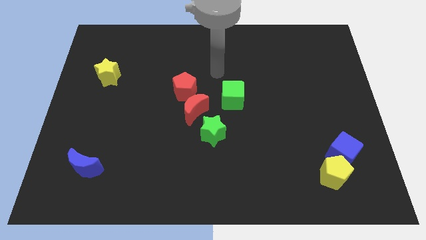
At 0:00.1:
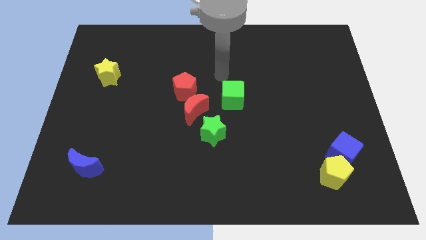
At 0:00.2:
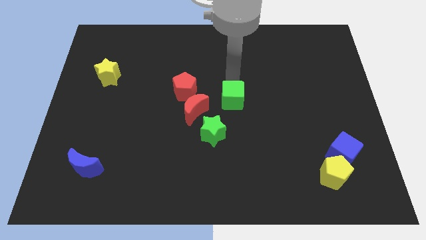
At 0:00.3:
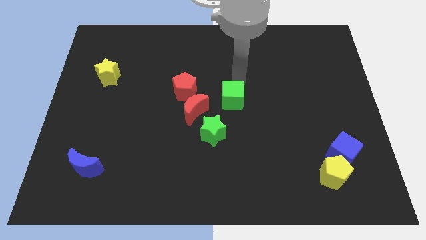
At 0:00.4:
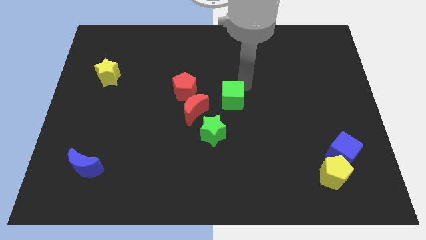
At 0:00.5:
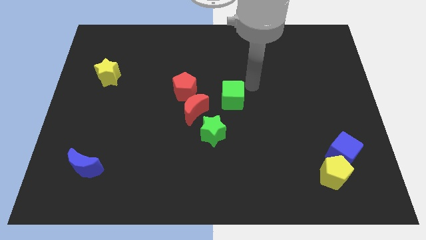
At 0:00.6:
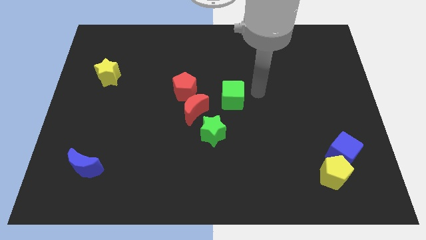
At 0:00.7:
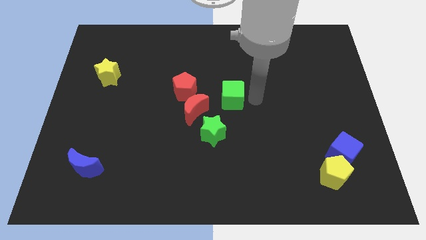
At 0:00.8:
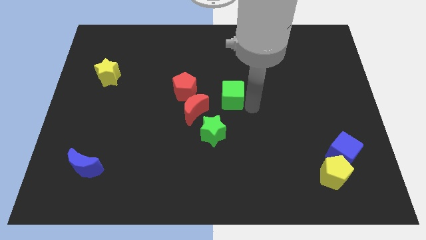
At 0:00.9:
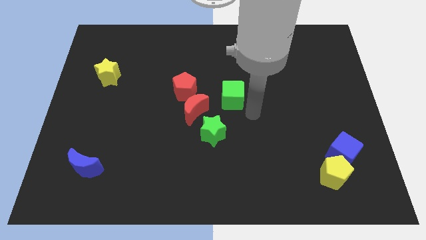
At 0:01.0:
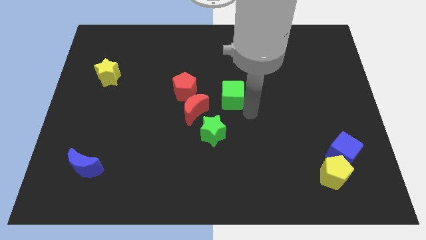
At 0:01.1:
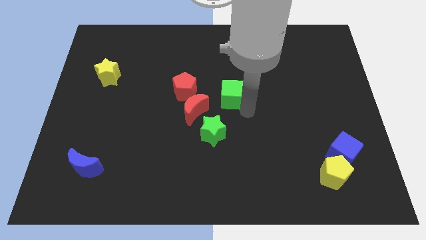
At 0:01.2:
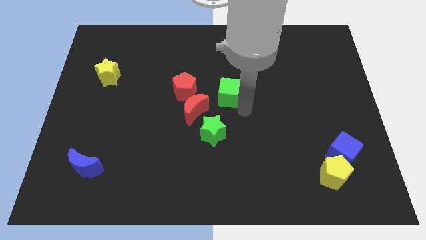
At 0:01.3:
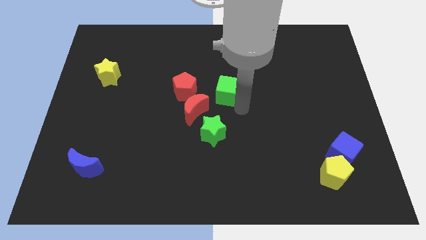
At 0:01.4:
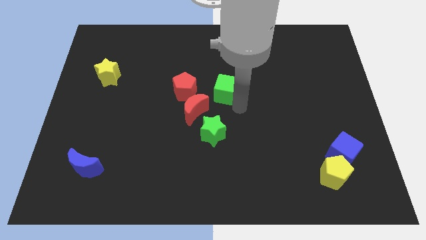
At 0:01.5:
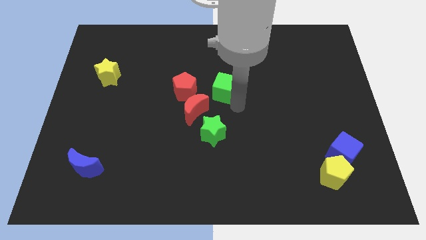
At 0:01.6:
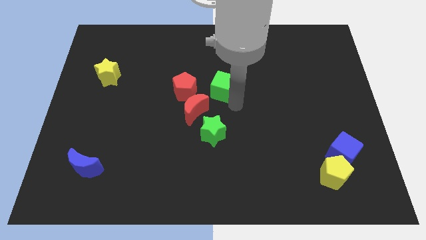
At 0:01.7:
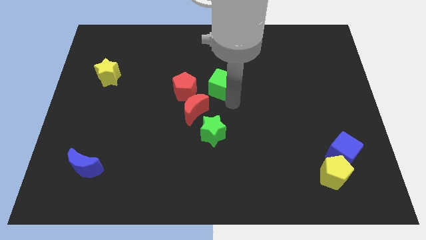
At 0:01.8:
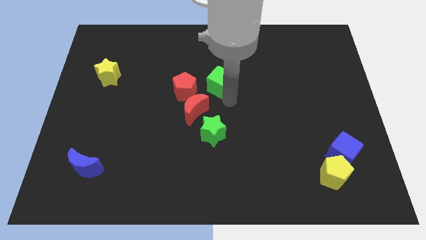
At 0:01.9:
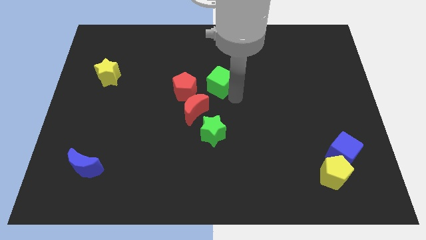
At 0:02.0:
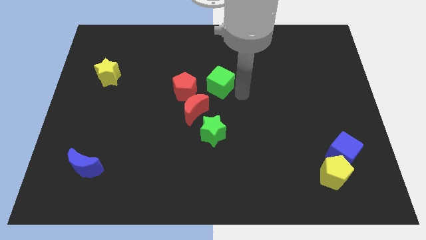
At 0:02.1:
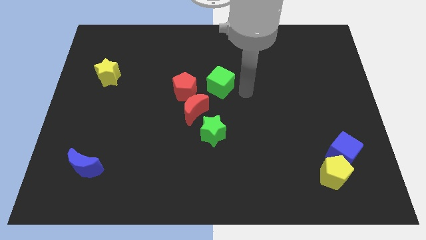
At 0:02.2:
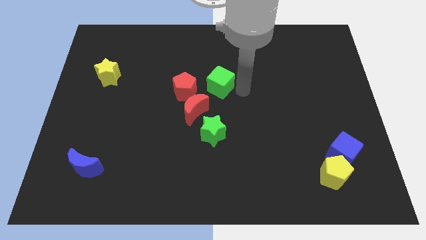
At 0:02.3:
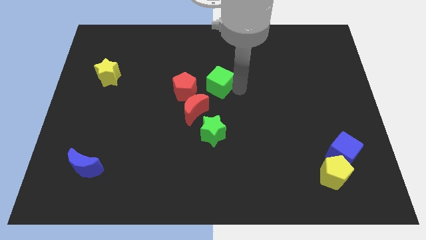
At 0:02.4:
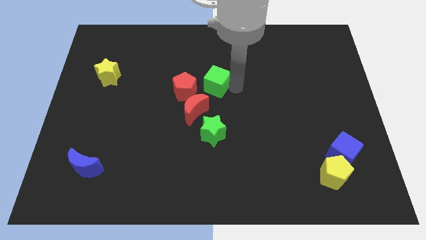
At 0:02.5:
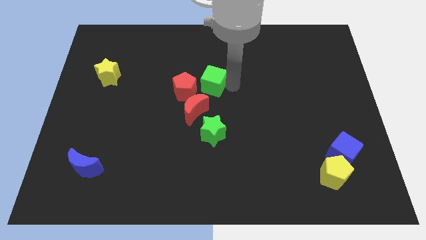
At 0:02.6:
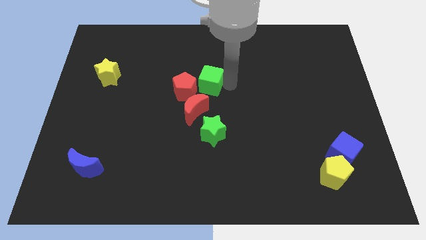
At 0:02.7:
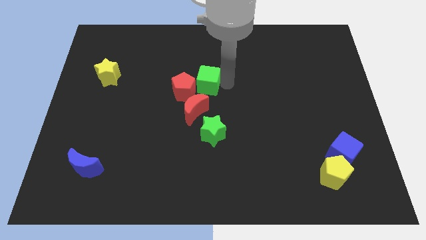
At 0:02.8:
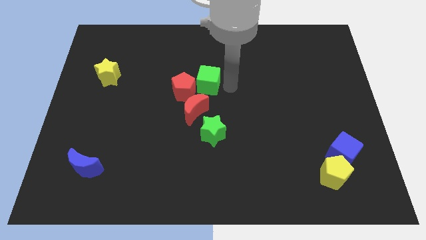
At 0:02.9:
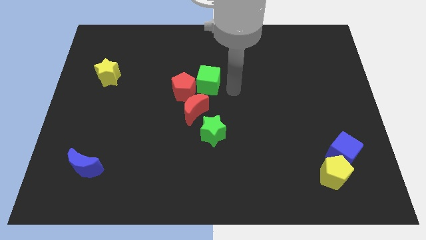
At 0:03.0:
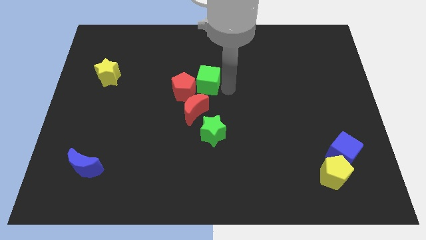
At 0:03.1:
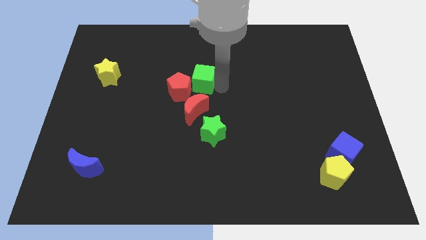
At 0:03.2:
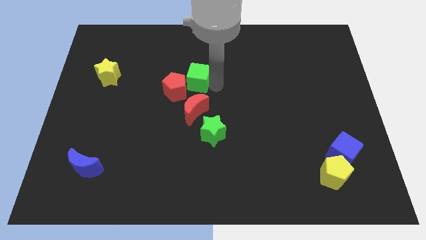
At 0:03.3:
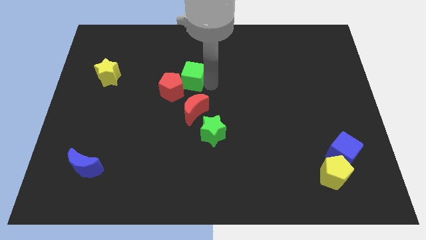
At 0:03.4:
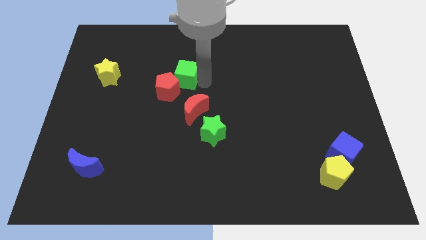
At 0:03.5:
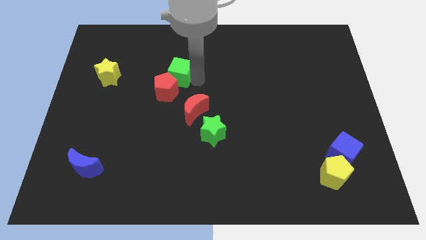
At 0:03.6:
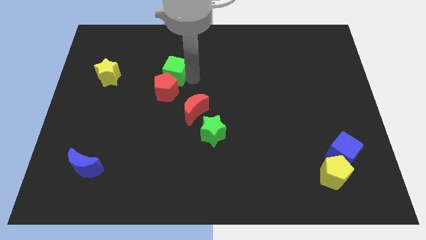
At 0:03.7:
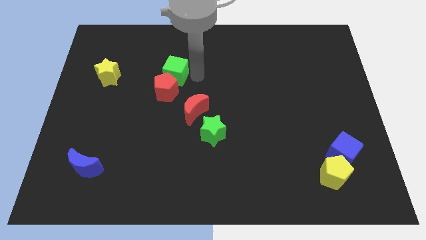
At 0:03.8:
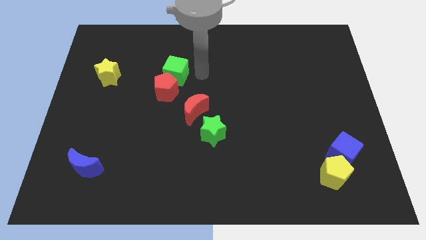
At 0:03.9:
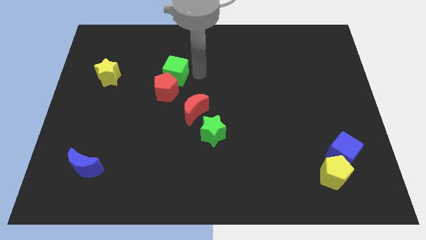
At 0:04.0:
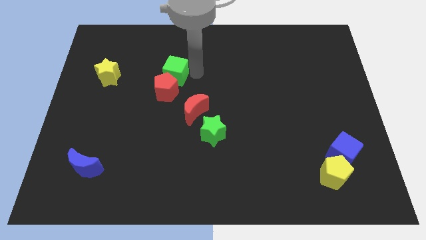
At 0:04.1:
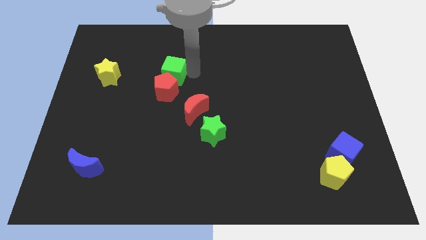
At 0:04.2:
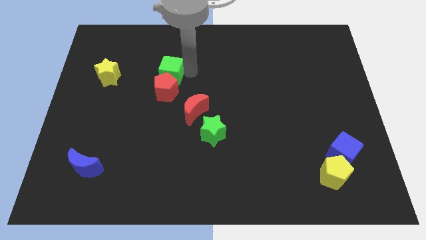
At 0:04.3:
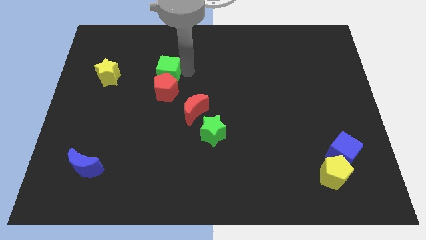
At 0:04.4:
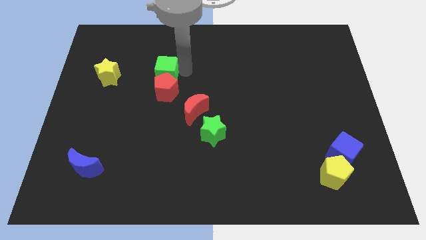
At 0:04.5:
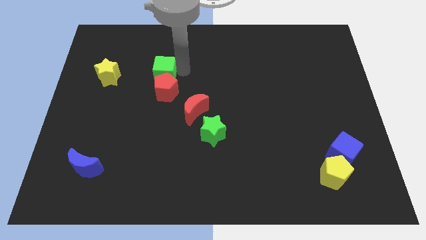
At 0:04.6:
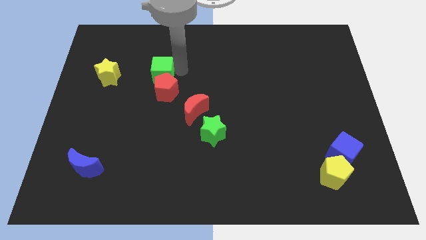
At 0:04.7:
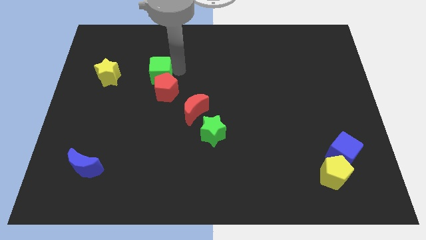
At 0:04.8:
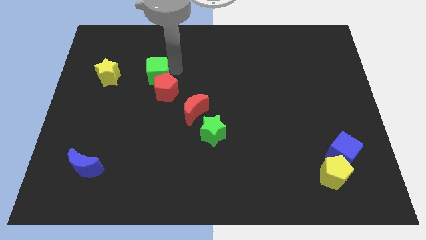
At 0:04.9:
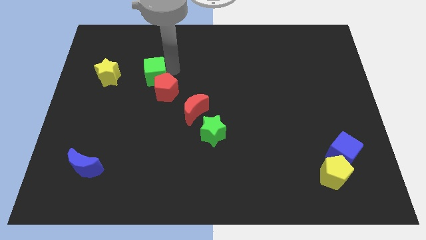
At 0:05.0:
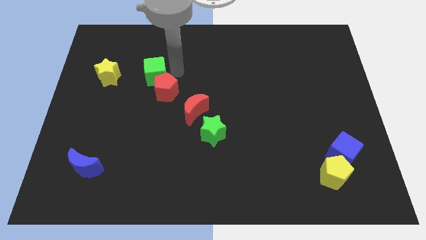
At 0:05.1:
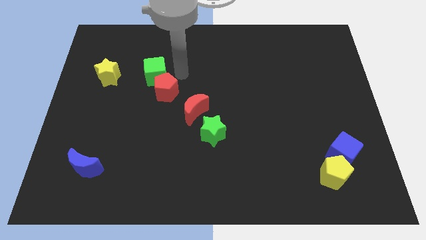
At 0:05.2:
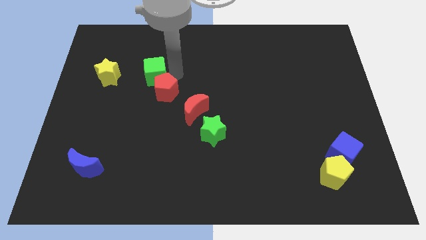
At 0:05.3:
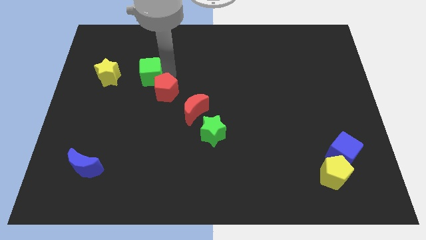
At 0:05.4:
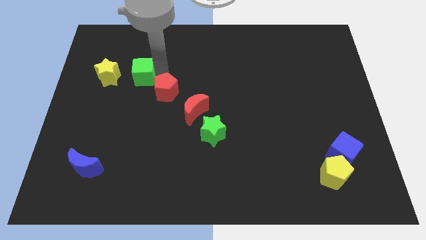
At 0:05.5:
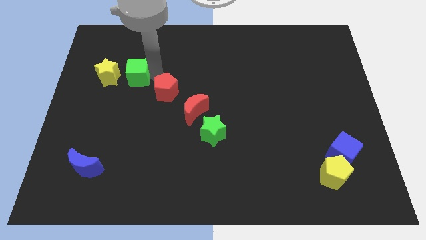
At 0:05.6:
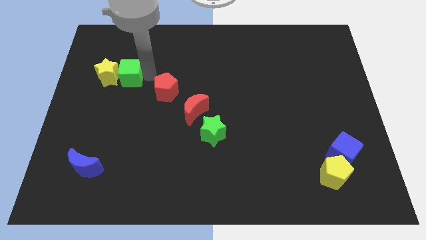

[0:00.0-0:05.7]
push the green cube towards the yellow star
